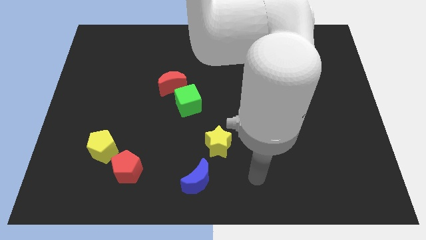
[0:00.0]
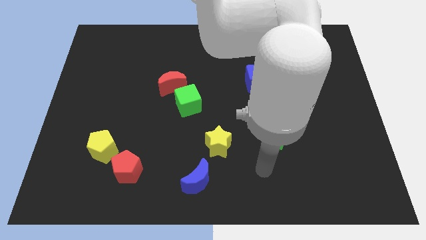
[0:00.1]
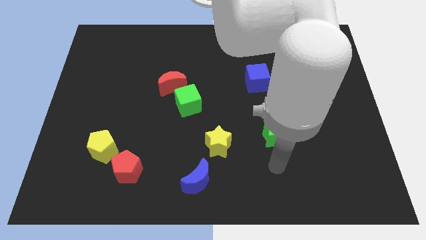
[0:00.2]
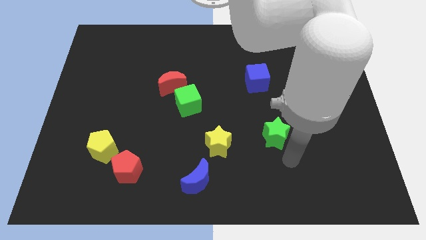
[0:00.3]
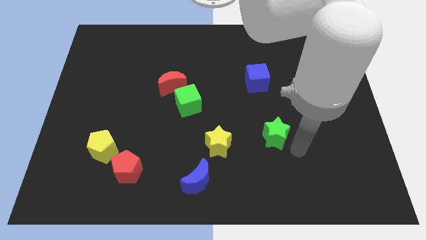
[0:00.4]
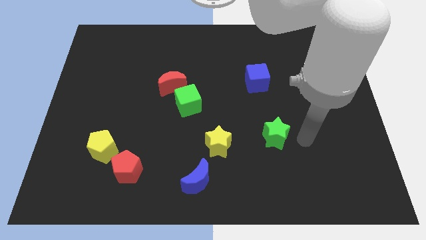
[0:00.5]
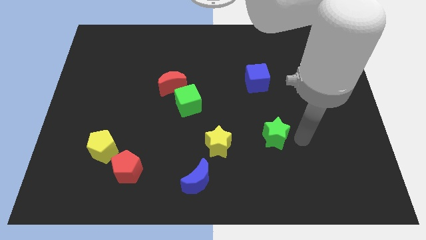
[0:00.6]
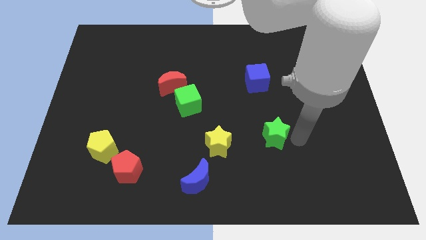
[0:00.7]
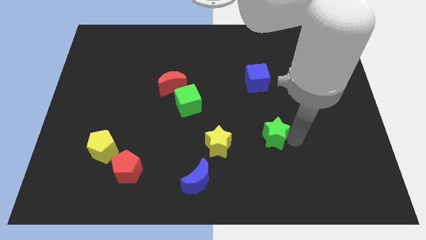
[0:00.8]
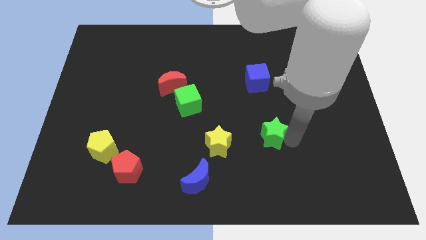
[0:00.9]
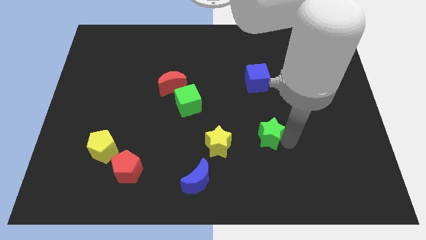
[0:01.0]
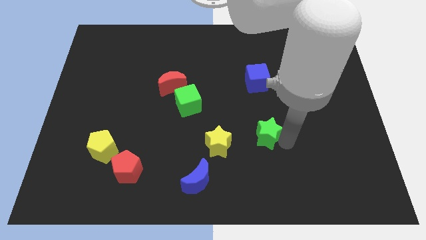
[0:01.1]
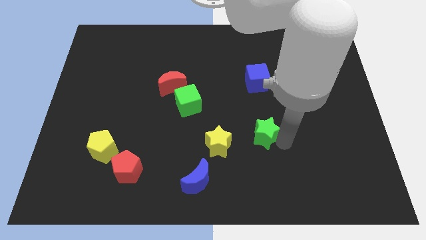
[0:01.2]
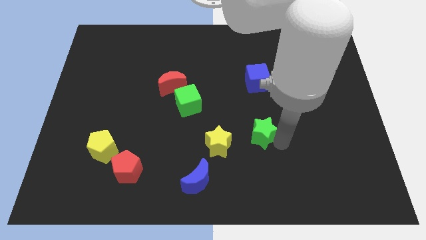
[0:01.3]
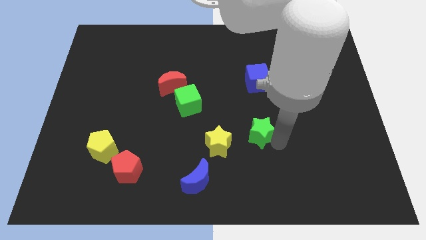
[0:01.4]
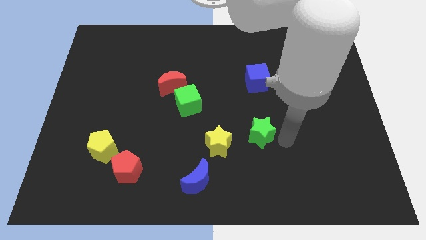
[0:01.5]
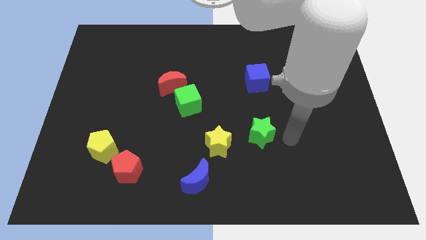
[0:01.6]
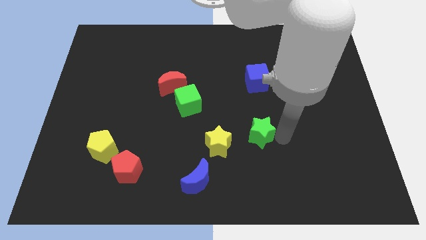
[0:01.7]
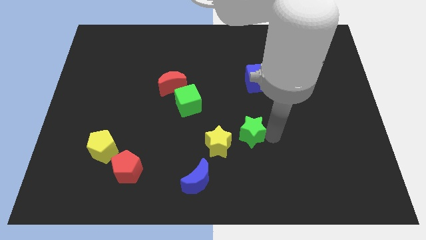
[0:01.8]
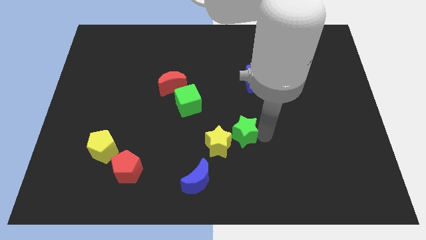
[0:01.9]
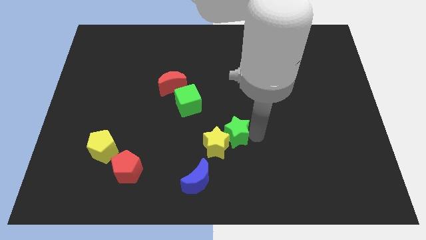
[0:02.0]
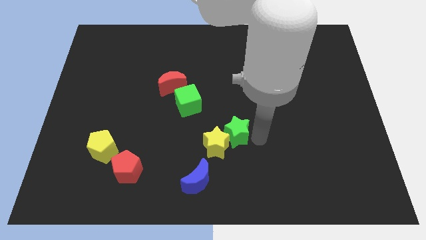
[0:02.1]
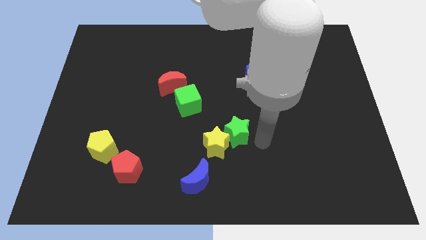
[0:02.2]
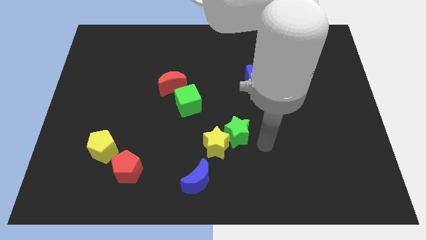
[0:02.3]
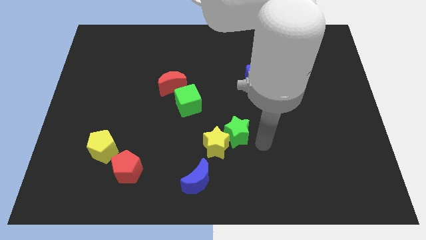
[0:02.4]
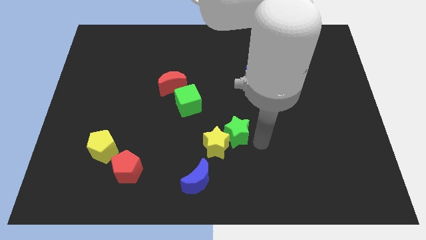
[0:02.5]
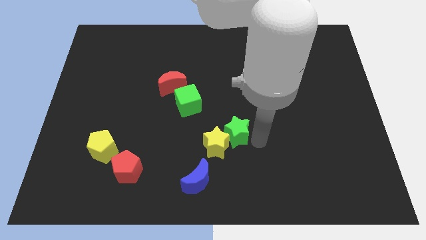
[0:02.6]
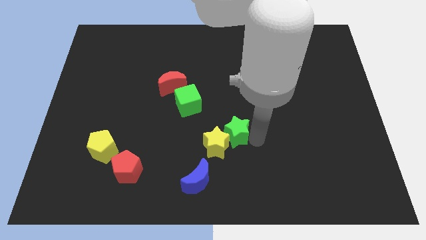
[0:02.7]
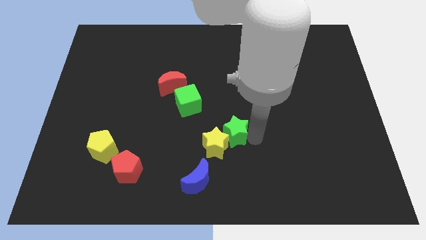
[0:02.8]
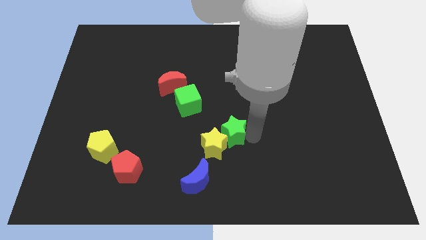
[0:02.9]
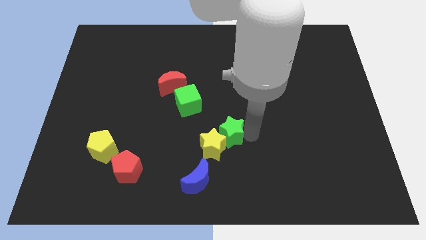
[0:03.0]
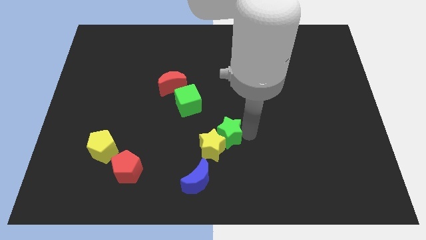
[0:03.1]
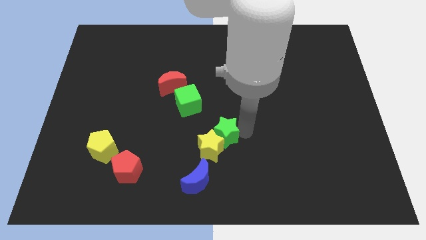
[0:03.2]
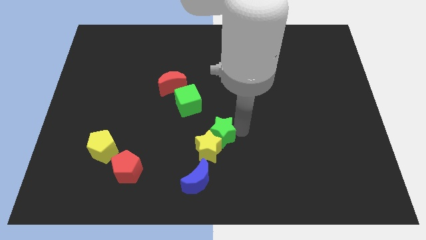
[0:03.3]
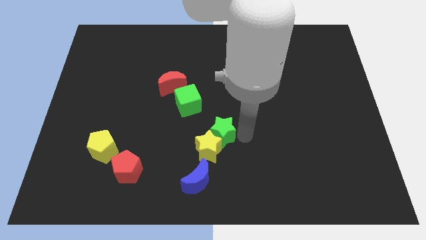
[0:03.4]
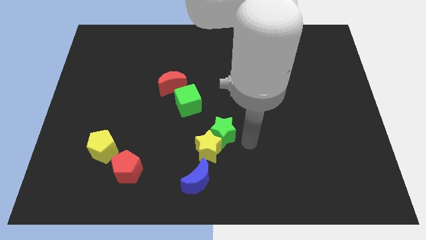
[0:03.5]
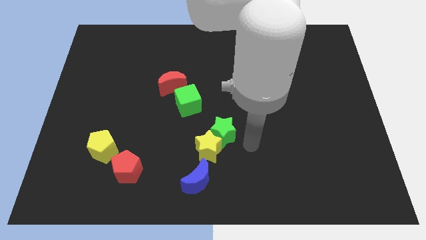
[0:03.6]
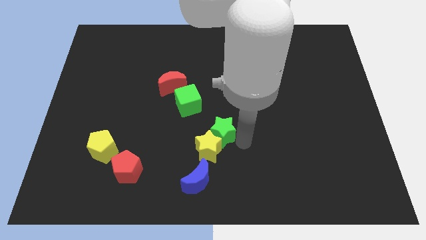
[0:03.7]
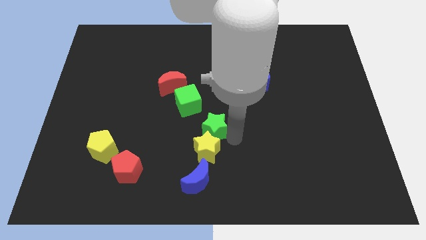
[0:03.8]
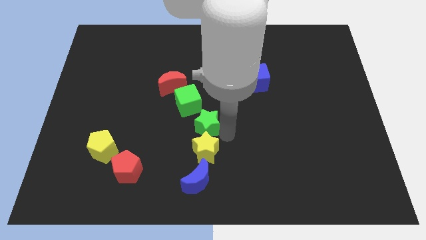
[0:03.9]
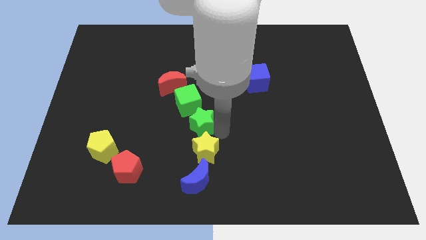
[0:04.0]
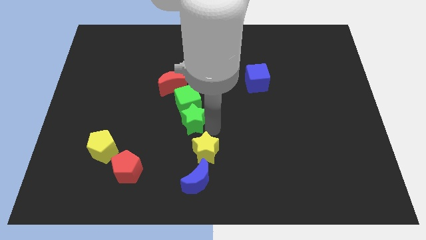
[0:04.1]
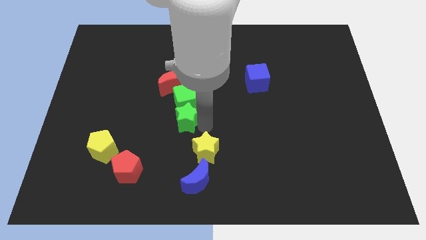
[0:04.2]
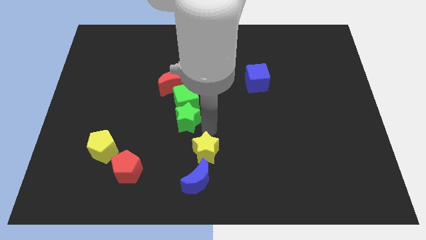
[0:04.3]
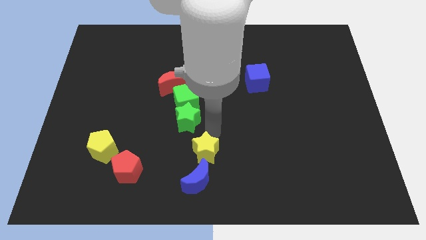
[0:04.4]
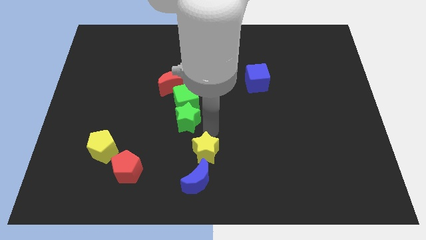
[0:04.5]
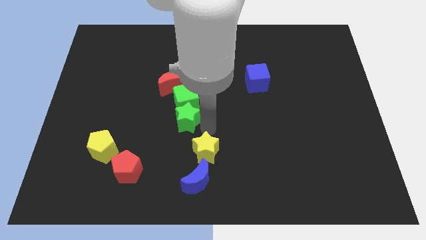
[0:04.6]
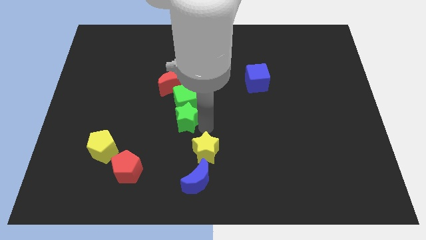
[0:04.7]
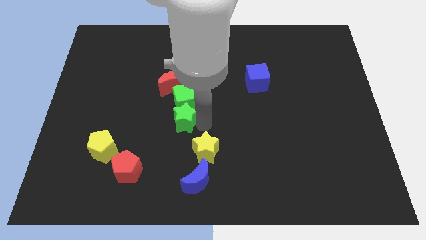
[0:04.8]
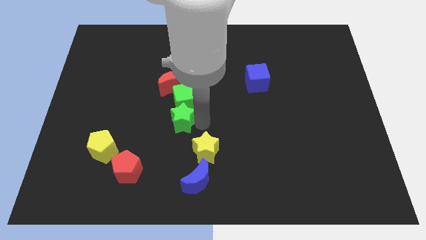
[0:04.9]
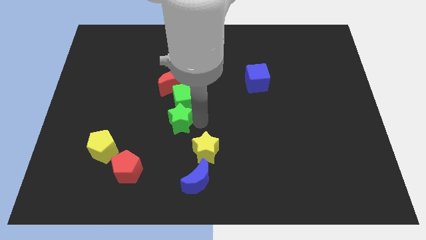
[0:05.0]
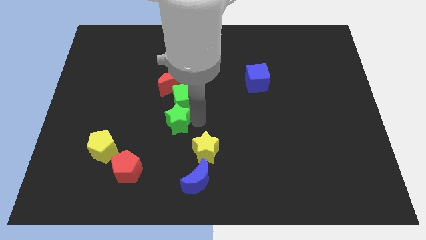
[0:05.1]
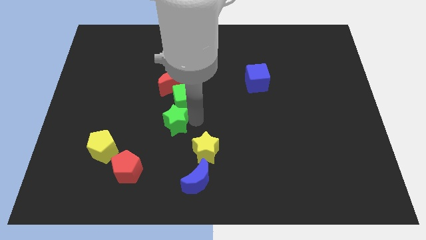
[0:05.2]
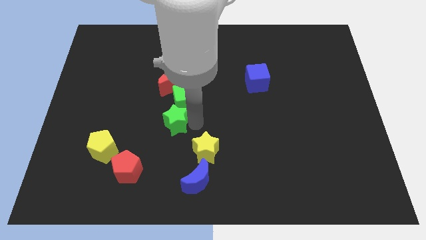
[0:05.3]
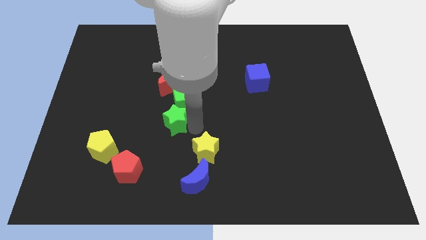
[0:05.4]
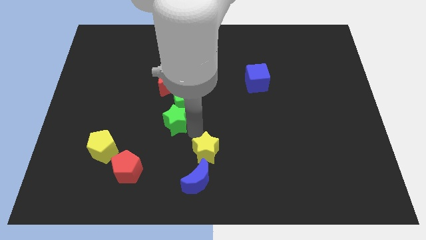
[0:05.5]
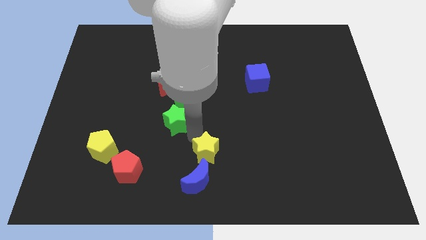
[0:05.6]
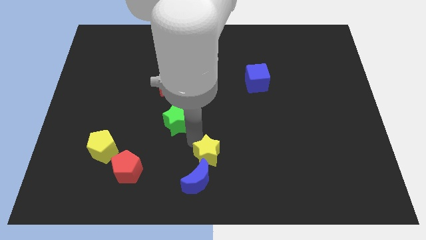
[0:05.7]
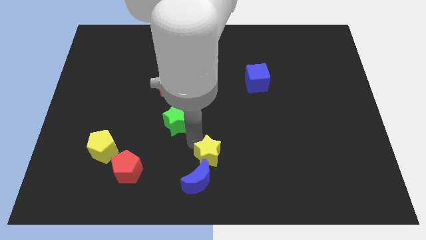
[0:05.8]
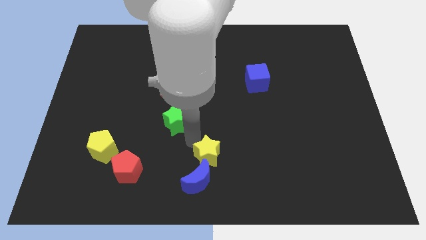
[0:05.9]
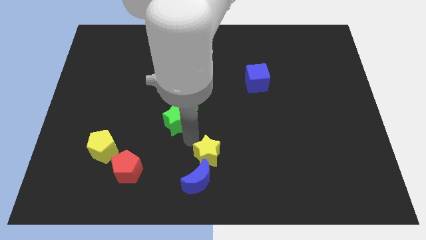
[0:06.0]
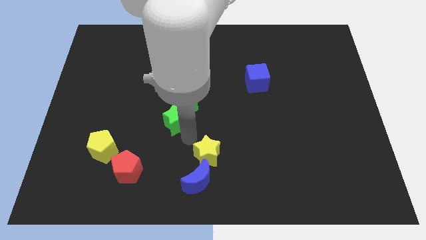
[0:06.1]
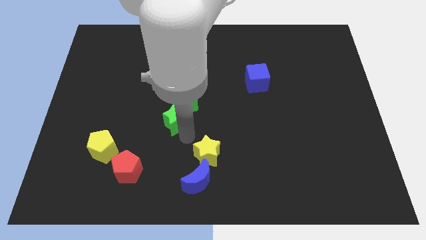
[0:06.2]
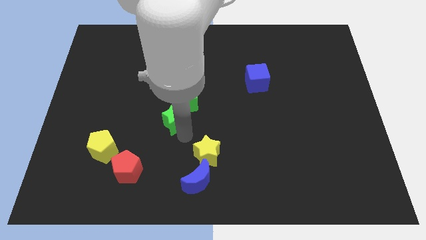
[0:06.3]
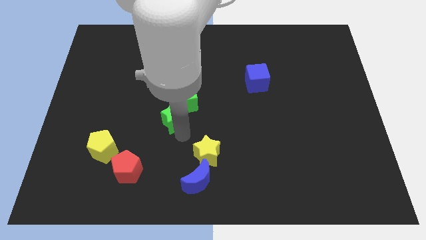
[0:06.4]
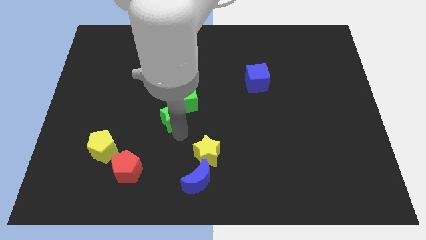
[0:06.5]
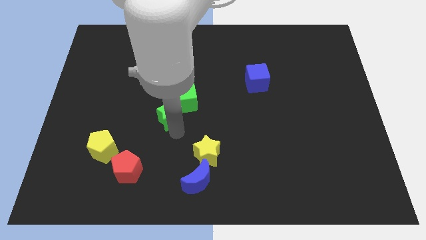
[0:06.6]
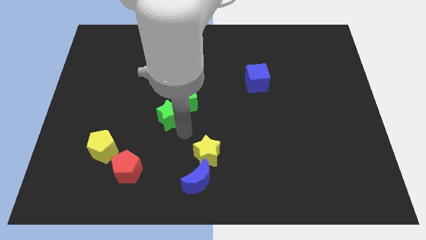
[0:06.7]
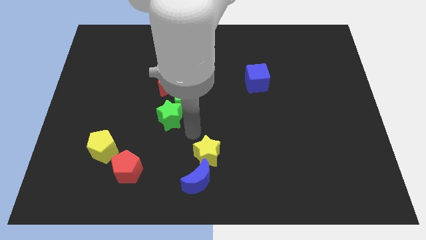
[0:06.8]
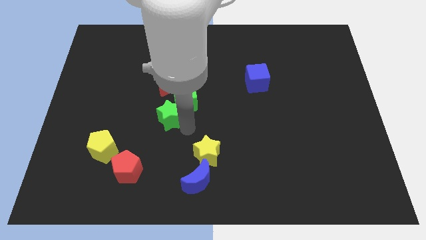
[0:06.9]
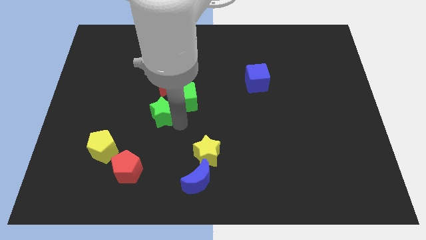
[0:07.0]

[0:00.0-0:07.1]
move the green star just left of the green cube

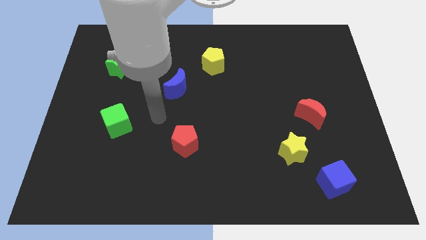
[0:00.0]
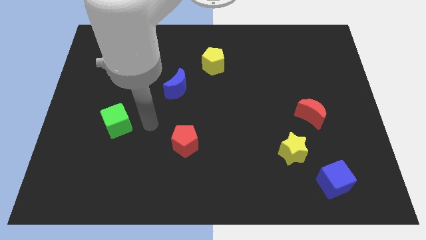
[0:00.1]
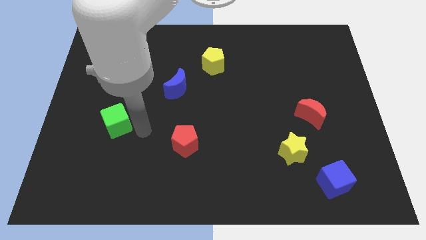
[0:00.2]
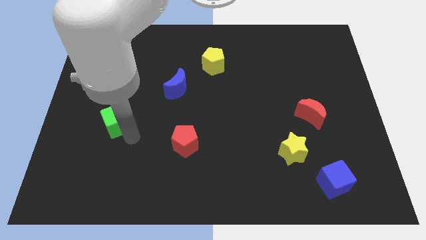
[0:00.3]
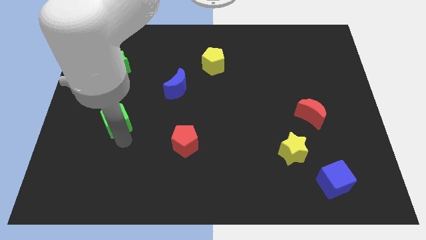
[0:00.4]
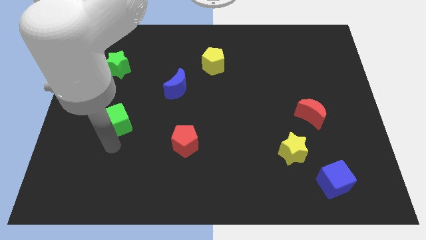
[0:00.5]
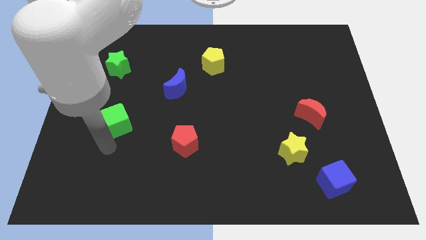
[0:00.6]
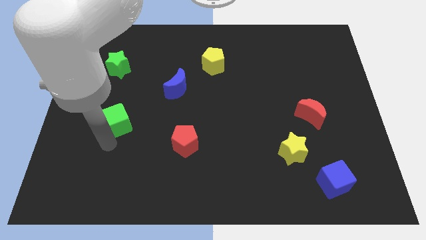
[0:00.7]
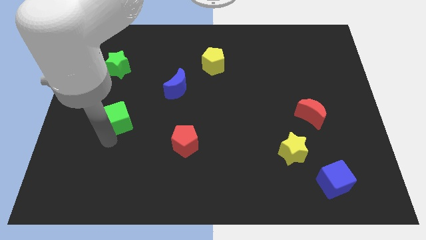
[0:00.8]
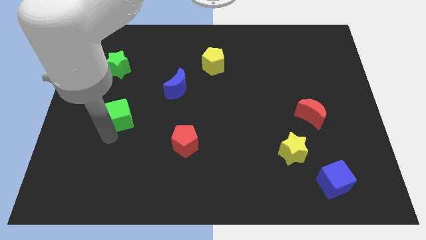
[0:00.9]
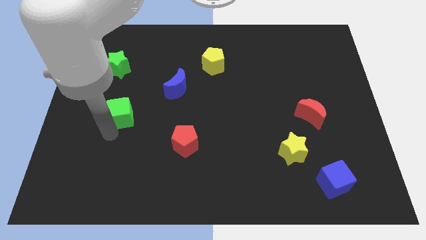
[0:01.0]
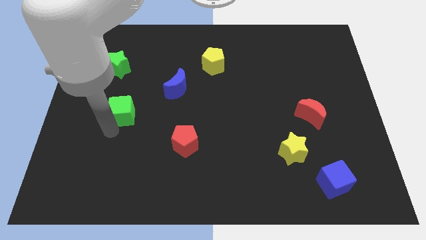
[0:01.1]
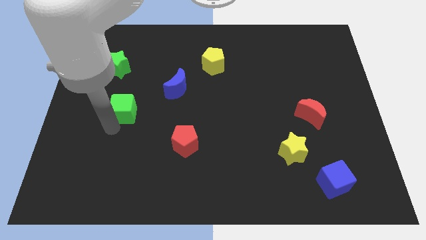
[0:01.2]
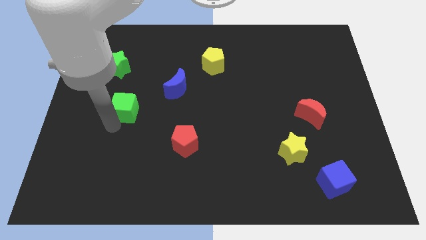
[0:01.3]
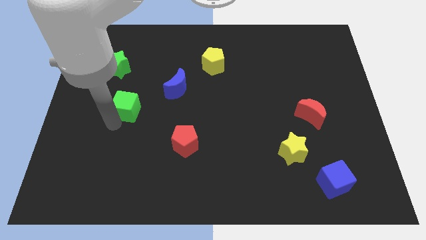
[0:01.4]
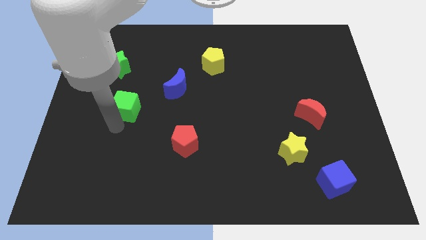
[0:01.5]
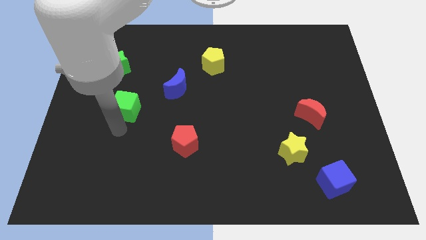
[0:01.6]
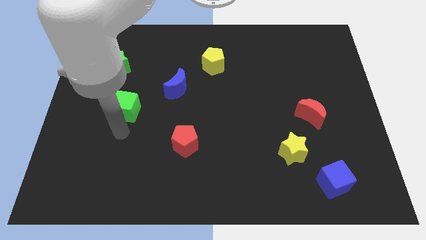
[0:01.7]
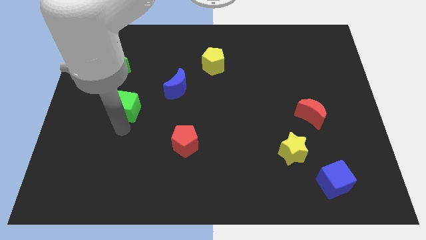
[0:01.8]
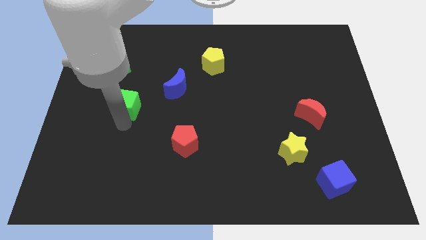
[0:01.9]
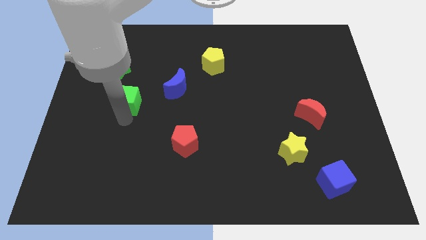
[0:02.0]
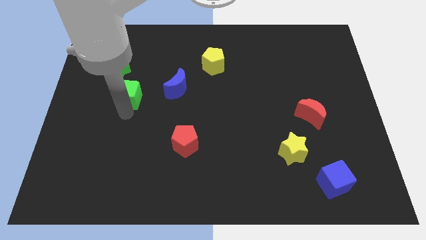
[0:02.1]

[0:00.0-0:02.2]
push the green cube diagonally down and to the right of the green star
